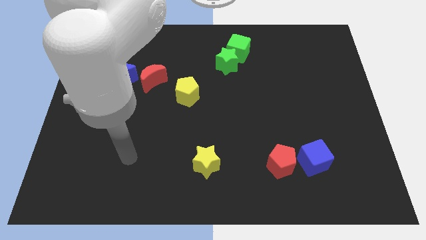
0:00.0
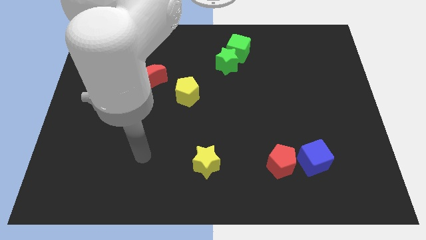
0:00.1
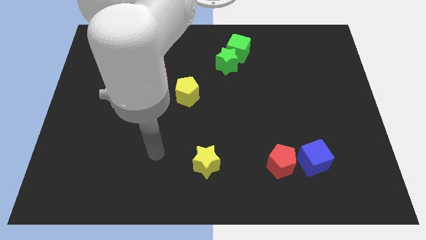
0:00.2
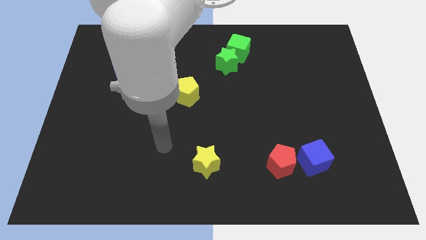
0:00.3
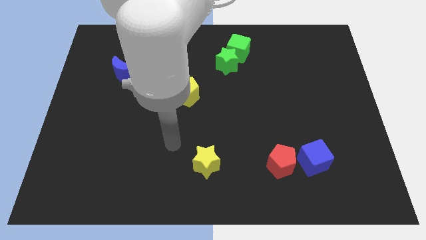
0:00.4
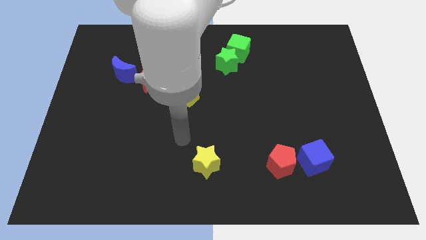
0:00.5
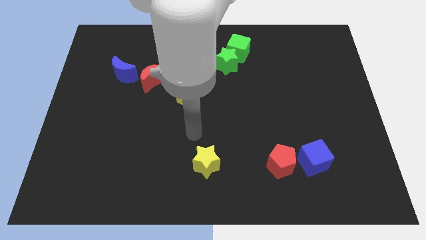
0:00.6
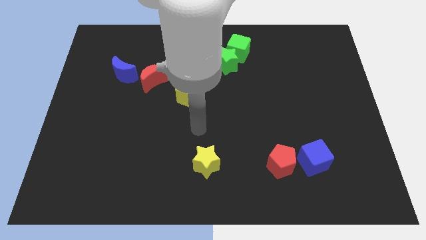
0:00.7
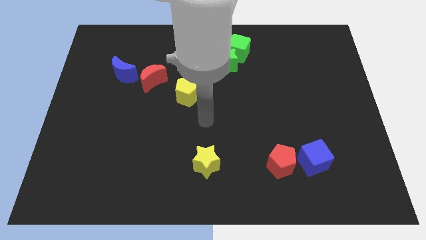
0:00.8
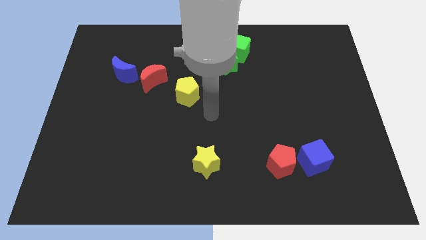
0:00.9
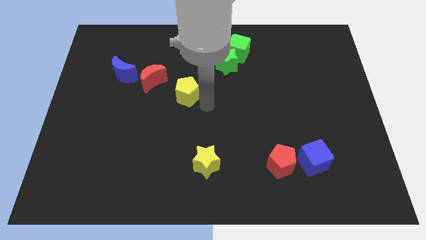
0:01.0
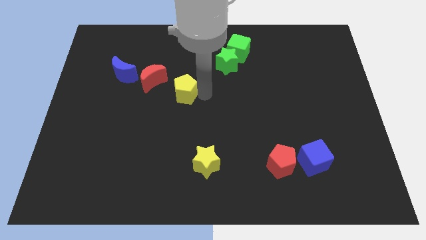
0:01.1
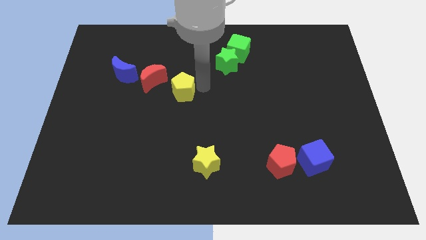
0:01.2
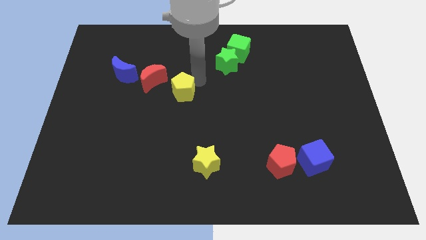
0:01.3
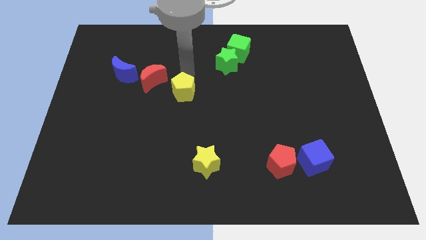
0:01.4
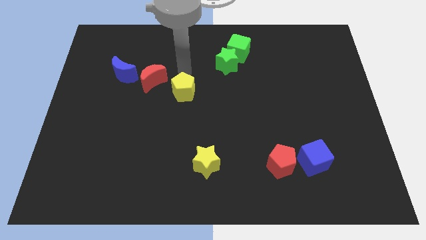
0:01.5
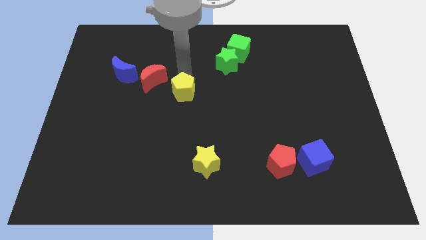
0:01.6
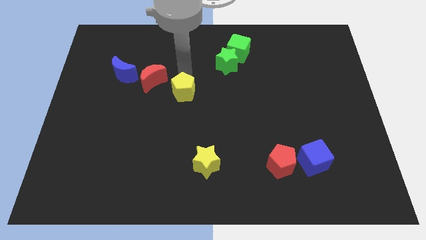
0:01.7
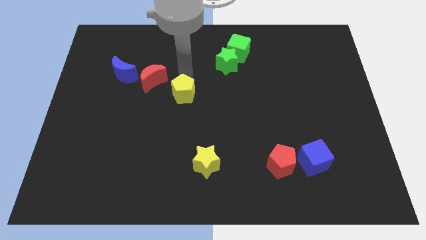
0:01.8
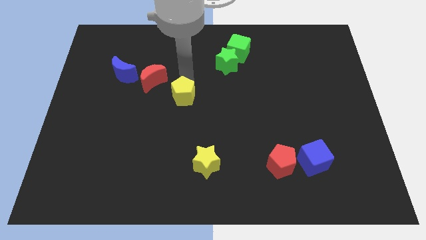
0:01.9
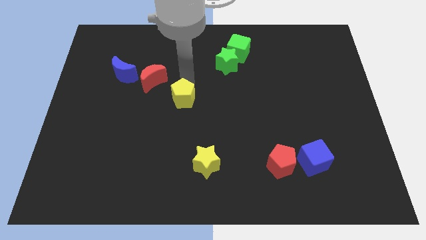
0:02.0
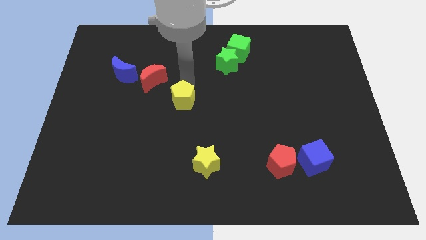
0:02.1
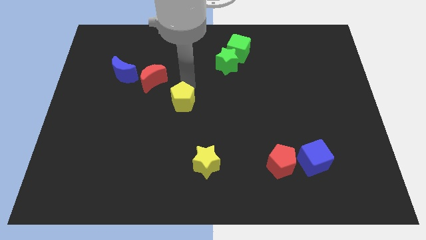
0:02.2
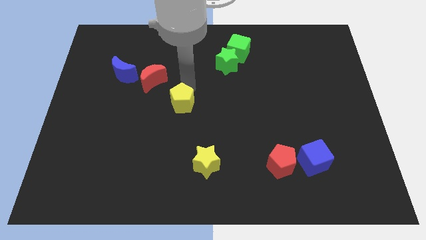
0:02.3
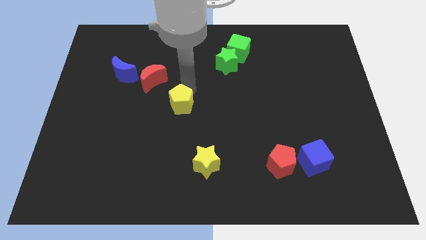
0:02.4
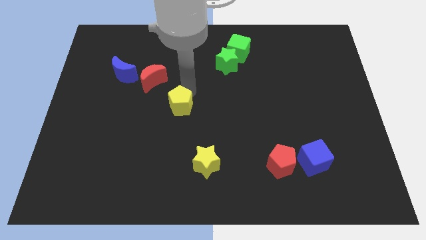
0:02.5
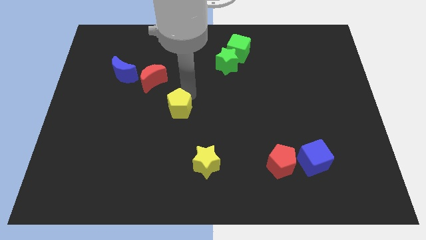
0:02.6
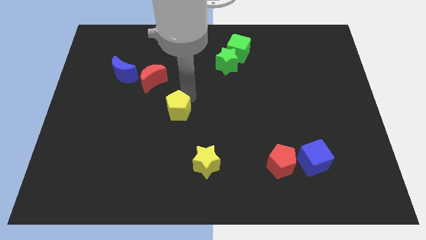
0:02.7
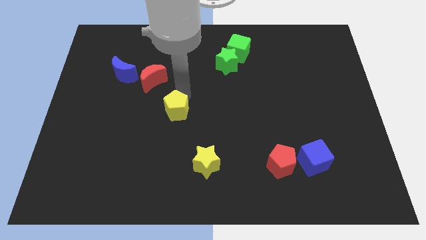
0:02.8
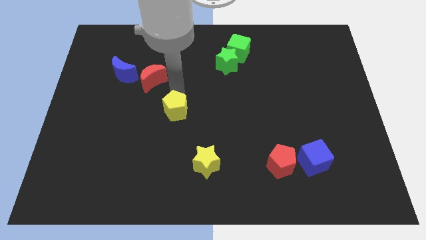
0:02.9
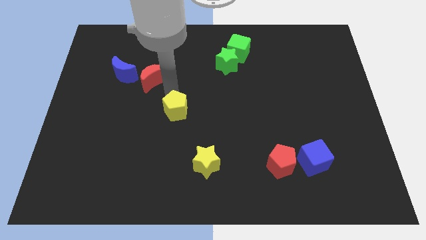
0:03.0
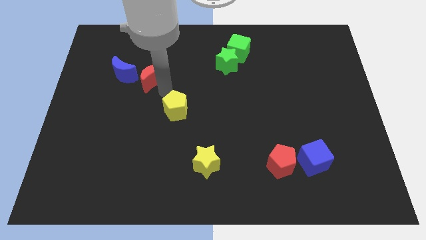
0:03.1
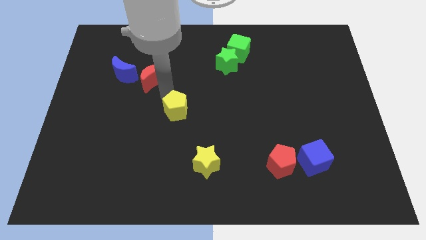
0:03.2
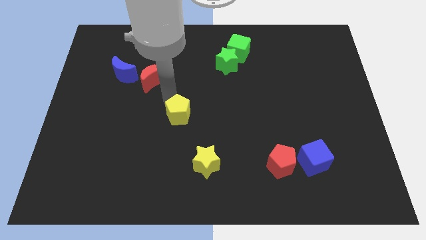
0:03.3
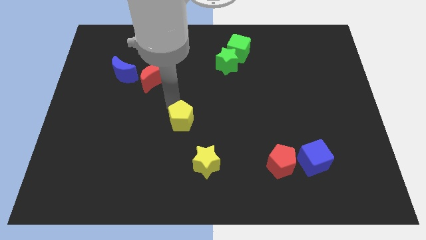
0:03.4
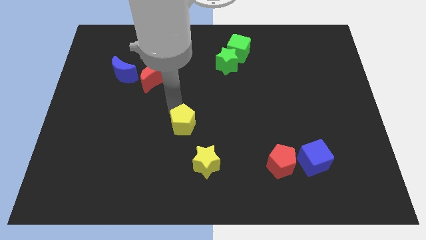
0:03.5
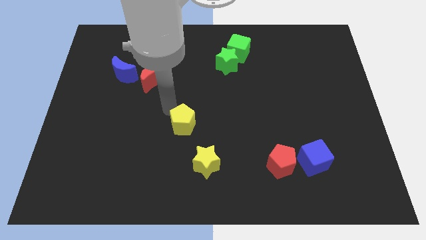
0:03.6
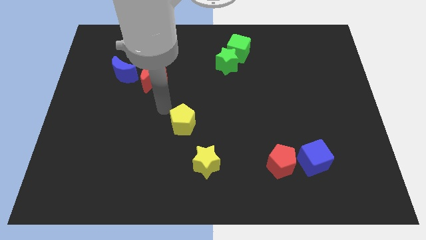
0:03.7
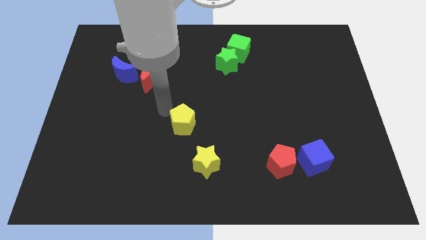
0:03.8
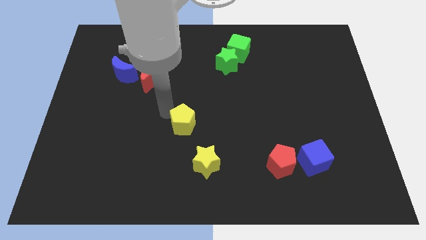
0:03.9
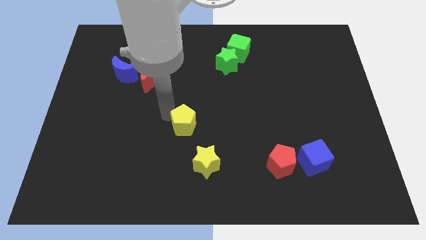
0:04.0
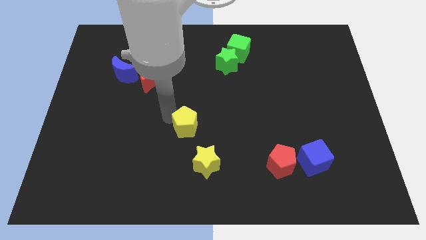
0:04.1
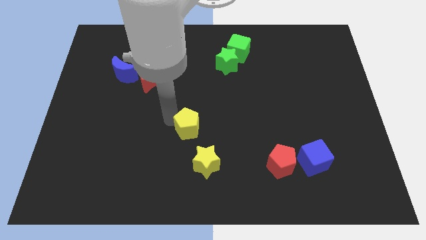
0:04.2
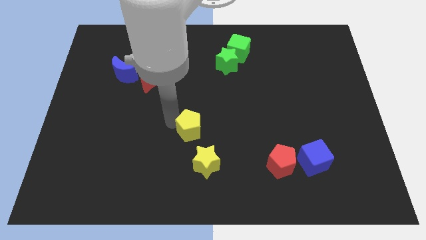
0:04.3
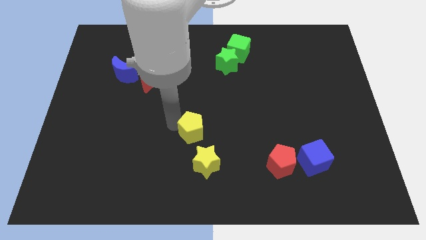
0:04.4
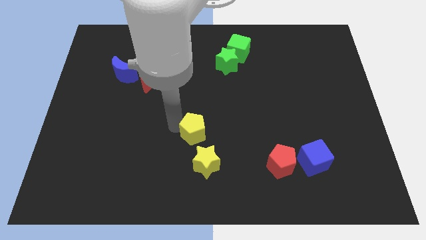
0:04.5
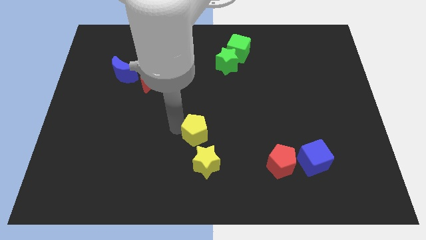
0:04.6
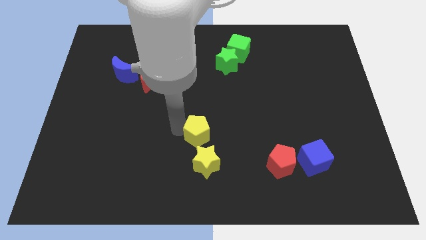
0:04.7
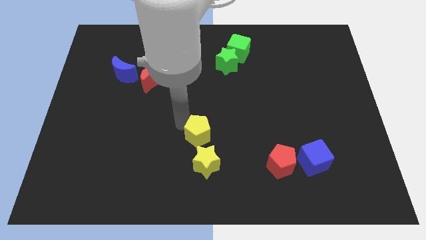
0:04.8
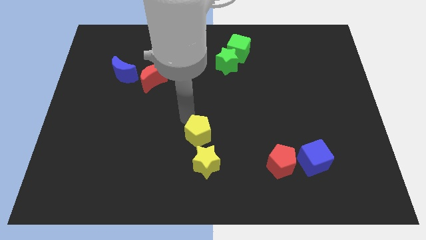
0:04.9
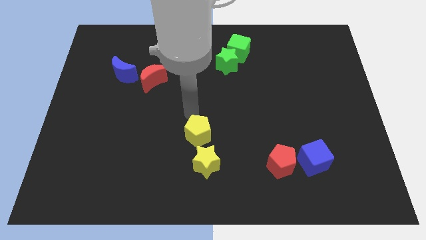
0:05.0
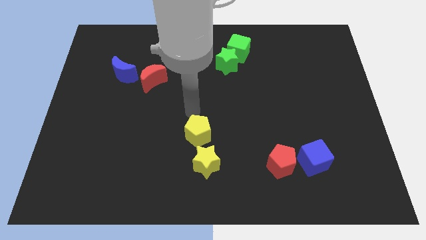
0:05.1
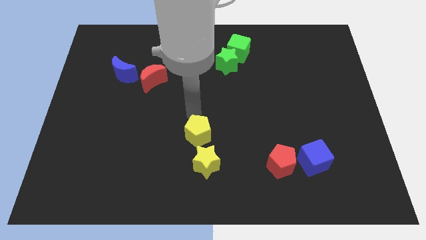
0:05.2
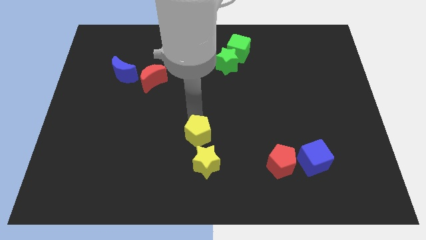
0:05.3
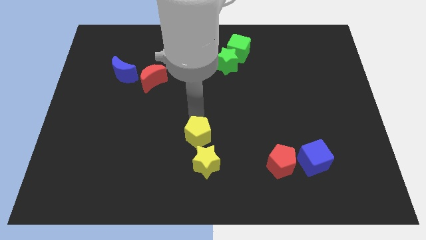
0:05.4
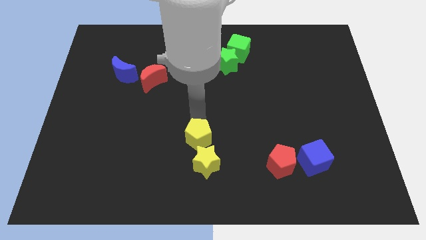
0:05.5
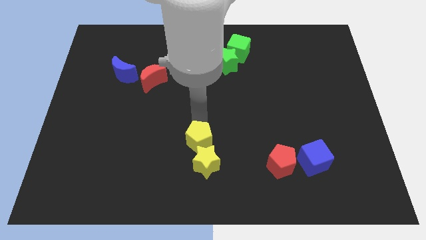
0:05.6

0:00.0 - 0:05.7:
put the yellow pentagon to the yellow star

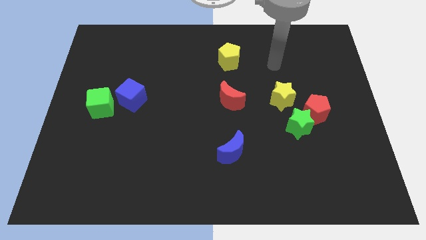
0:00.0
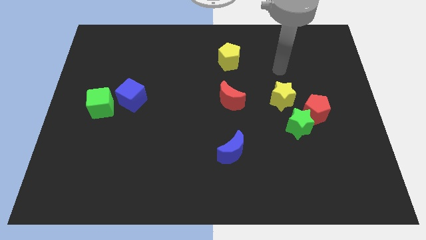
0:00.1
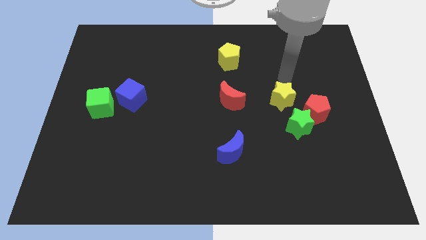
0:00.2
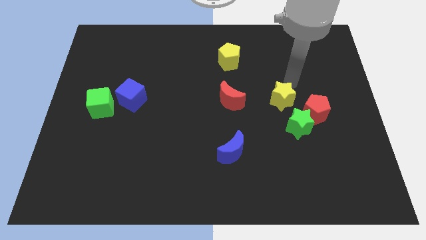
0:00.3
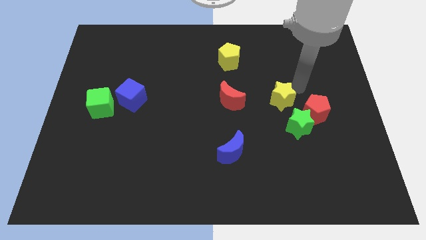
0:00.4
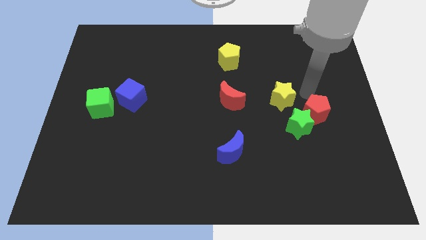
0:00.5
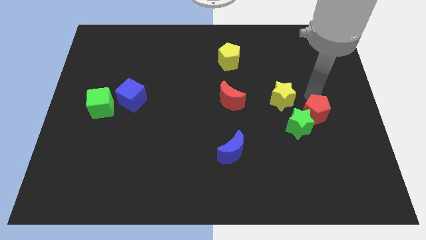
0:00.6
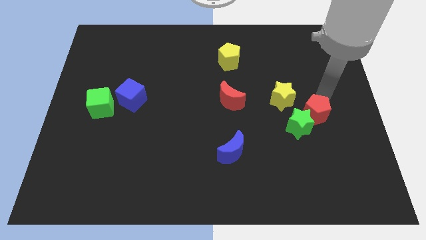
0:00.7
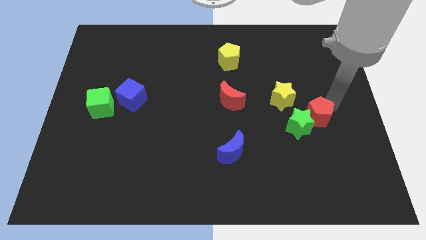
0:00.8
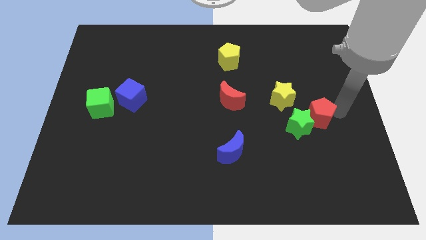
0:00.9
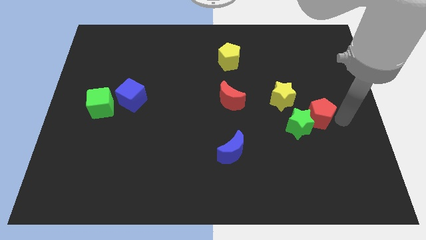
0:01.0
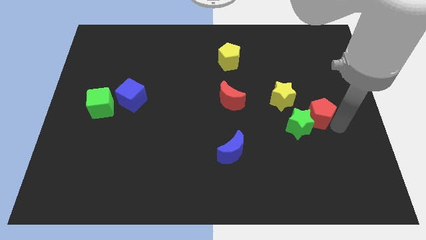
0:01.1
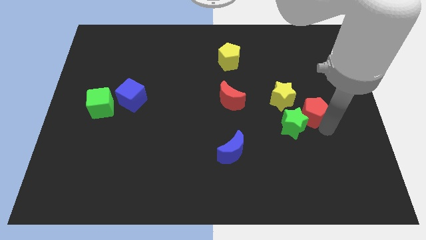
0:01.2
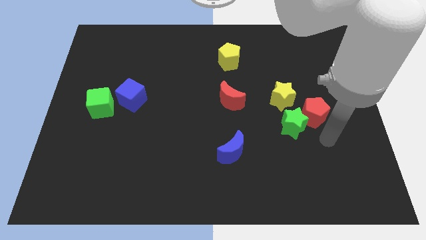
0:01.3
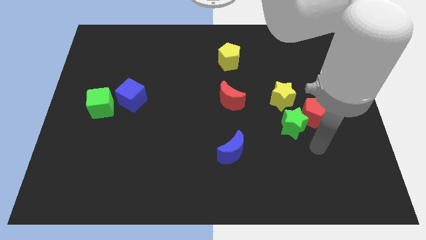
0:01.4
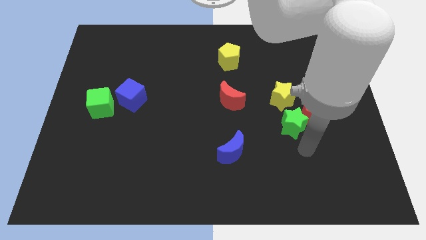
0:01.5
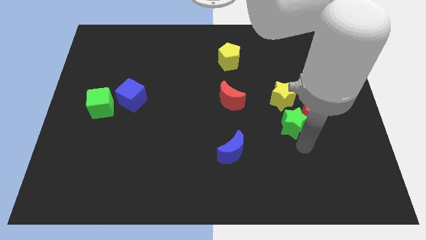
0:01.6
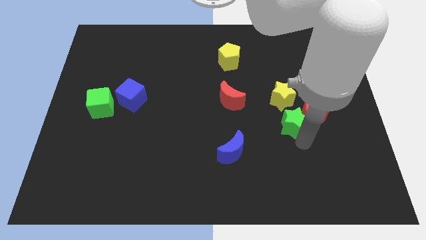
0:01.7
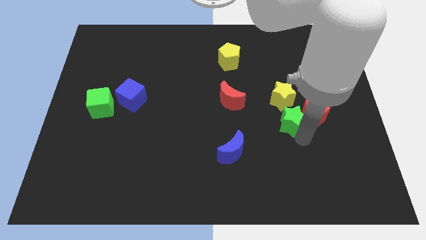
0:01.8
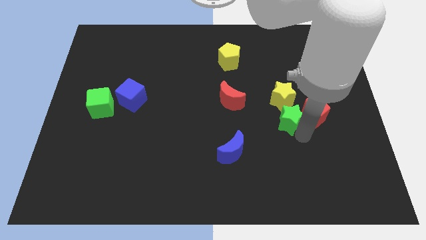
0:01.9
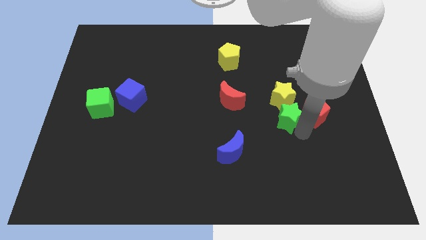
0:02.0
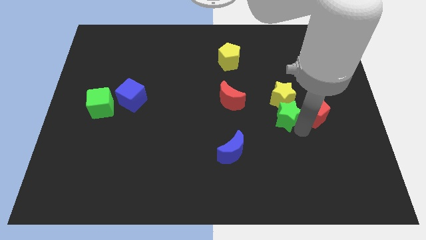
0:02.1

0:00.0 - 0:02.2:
push the green star close to the yellow star

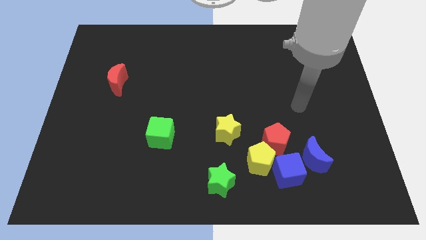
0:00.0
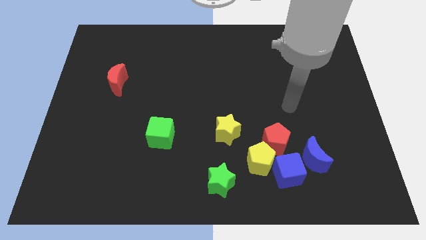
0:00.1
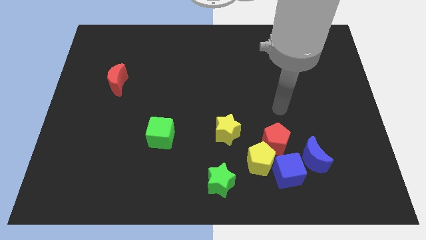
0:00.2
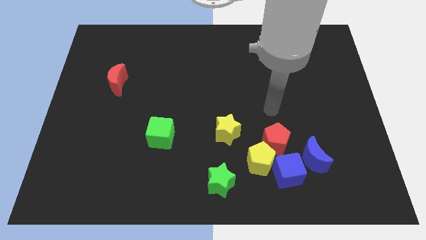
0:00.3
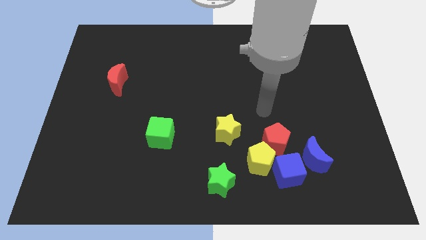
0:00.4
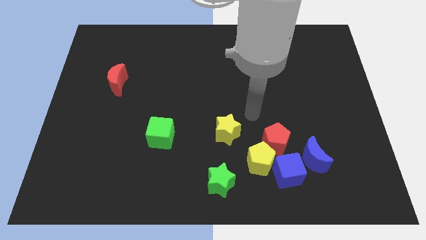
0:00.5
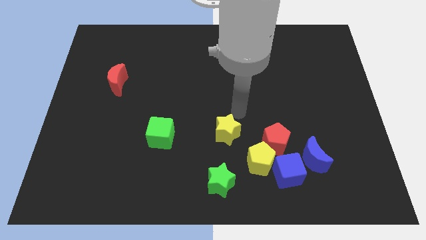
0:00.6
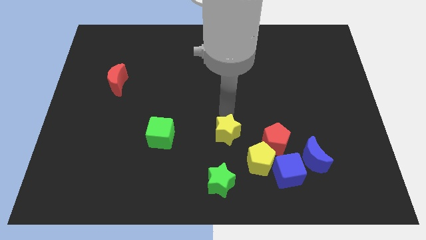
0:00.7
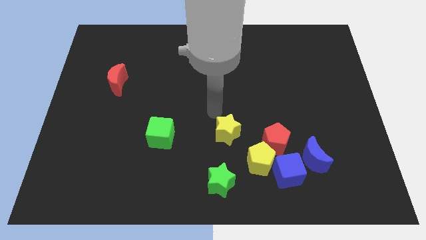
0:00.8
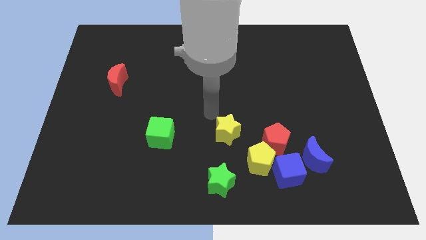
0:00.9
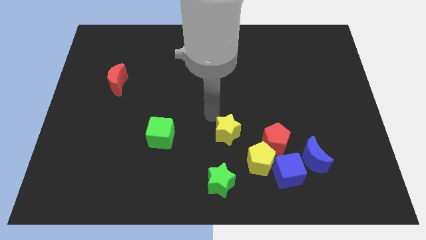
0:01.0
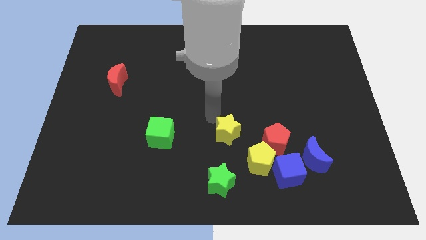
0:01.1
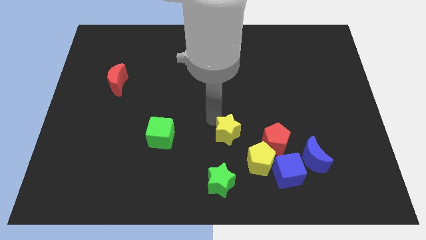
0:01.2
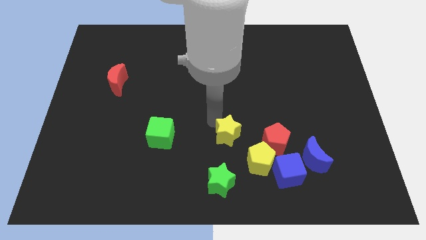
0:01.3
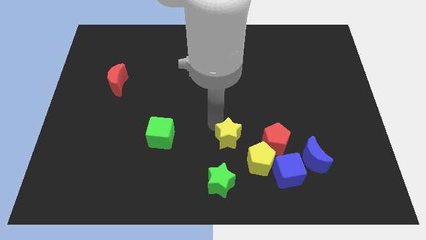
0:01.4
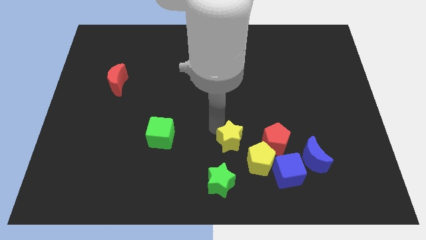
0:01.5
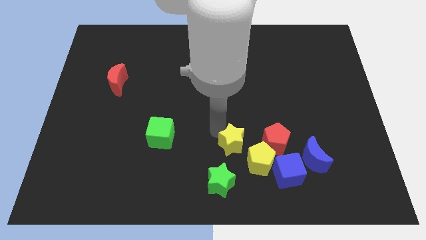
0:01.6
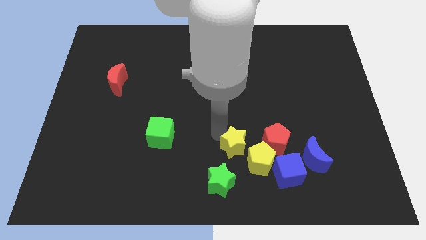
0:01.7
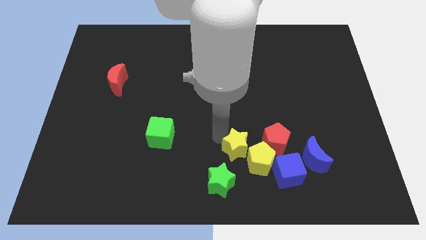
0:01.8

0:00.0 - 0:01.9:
move the yellow star next to the yellow pentagon
